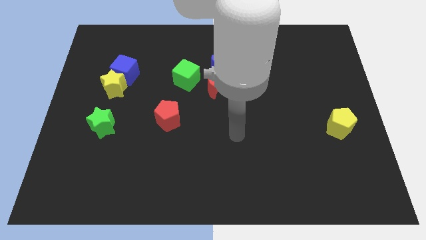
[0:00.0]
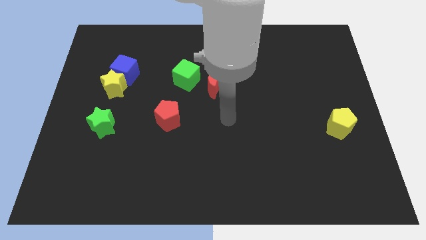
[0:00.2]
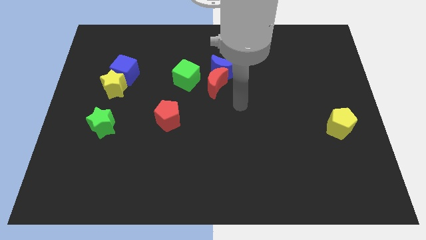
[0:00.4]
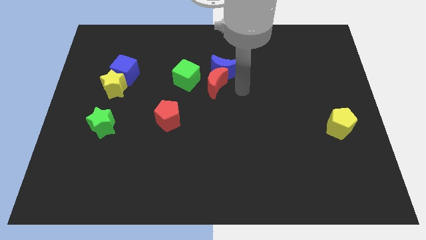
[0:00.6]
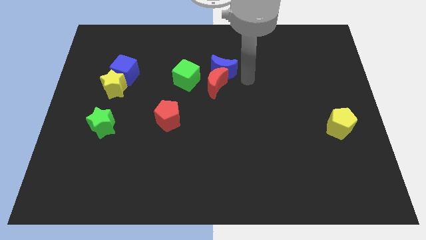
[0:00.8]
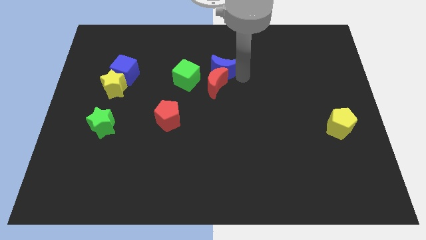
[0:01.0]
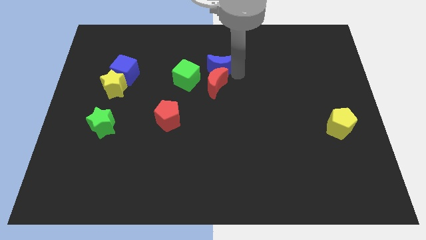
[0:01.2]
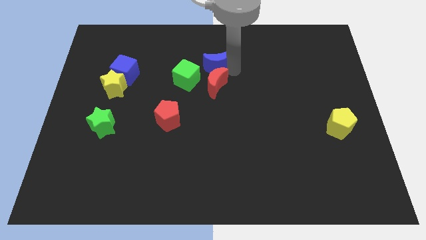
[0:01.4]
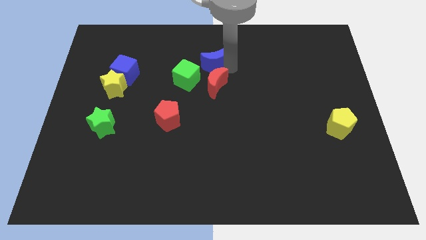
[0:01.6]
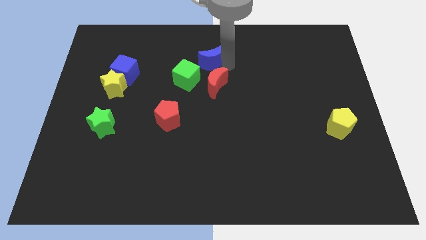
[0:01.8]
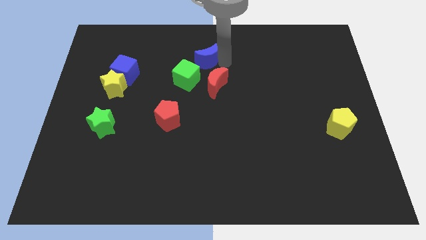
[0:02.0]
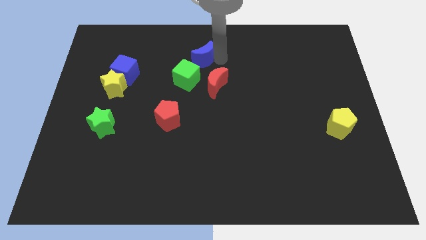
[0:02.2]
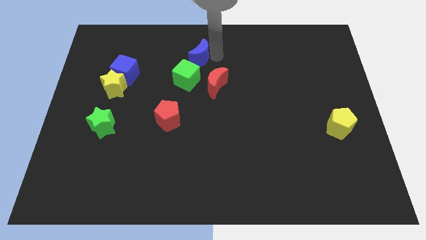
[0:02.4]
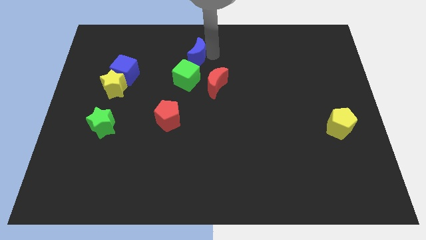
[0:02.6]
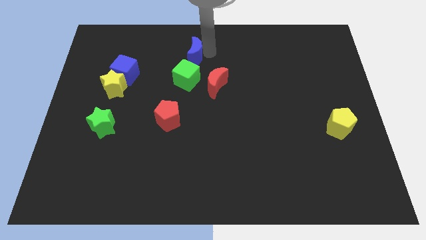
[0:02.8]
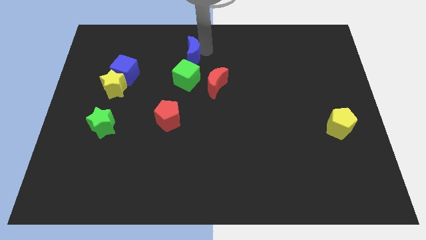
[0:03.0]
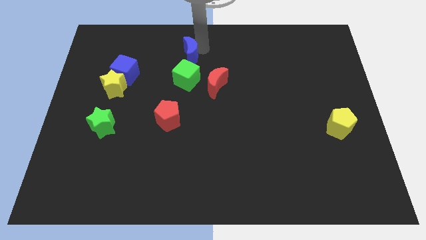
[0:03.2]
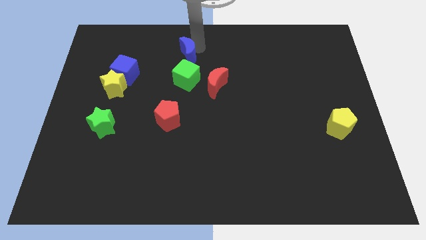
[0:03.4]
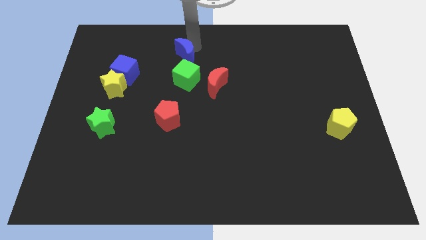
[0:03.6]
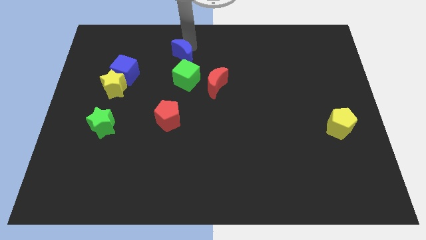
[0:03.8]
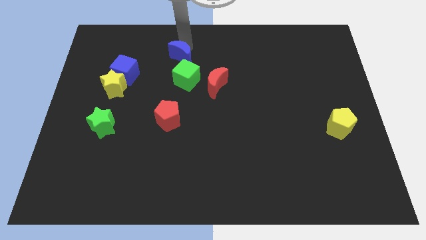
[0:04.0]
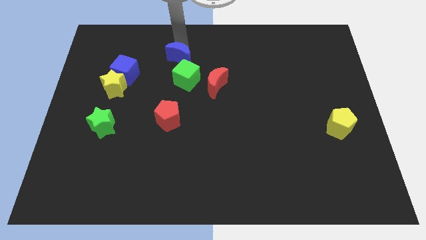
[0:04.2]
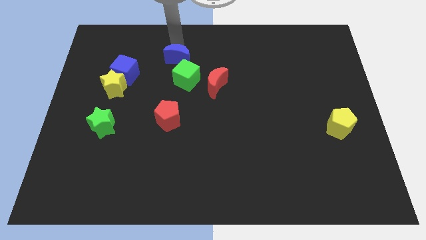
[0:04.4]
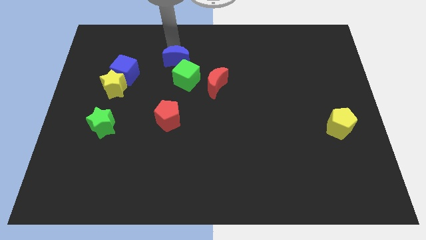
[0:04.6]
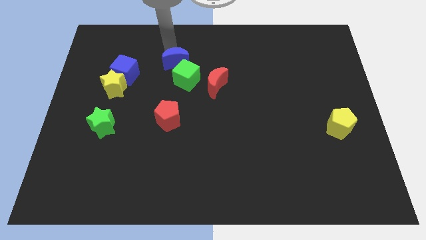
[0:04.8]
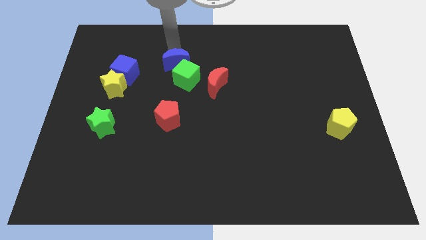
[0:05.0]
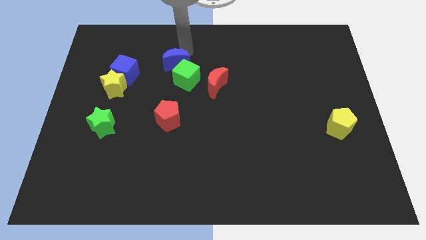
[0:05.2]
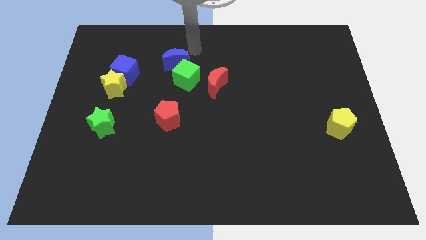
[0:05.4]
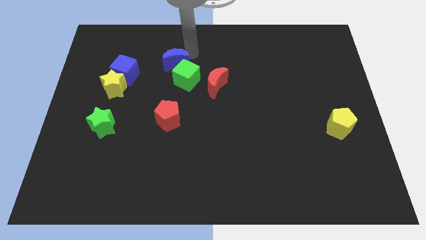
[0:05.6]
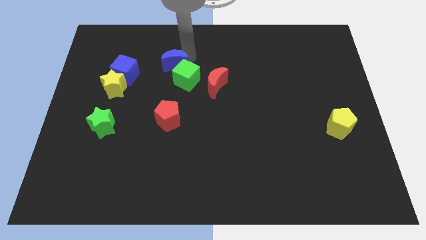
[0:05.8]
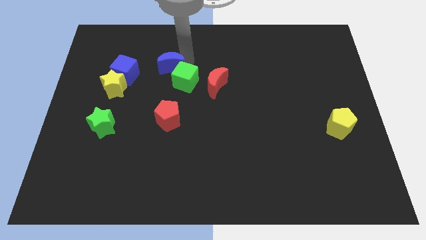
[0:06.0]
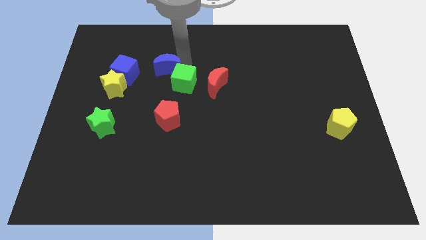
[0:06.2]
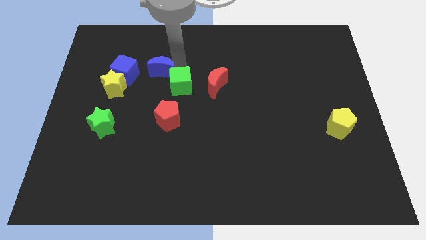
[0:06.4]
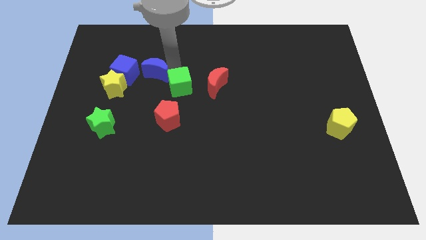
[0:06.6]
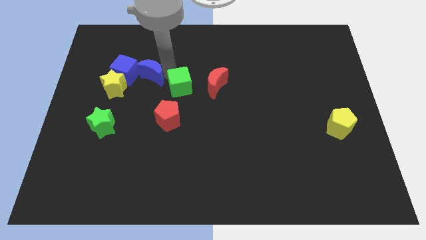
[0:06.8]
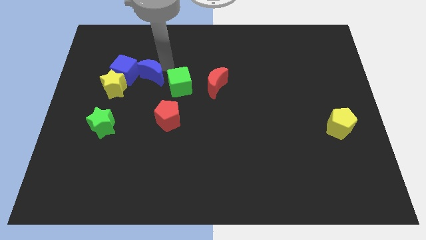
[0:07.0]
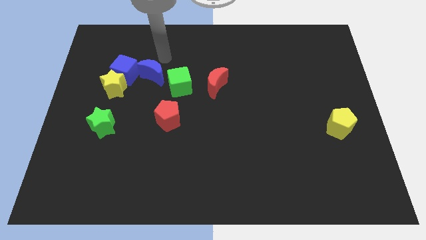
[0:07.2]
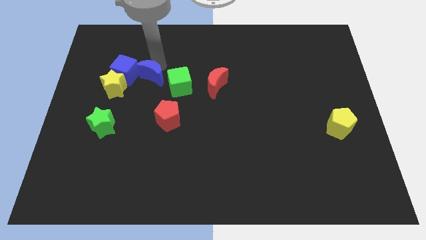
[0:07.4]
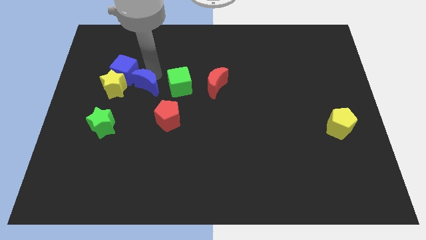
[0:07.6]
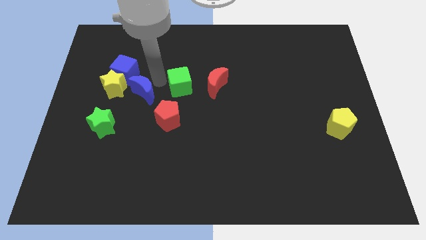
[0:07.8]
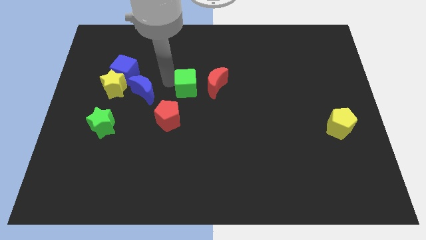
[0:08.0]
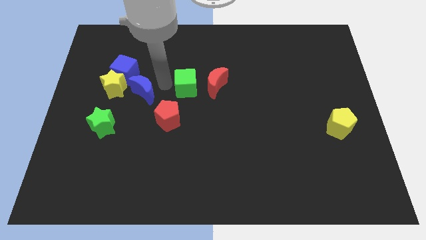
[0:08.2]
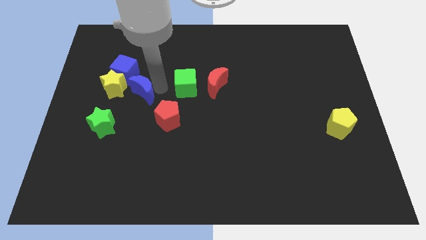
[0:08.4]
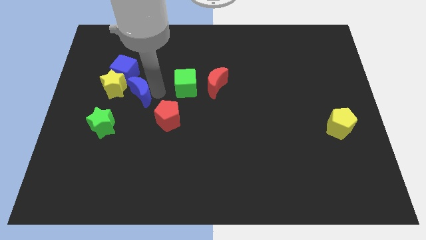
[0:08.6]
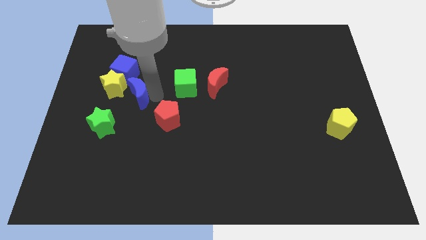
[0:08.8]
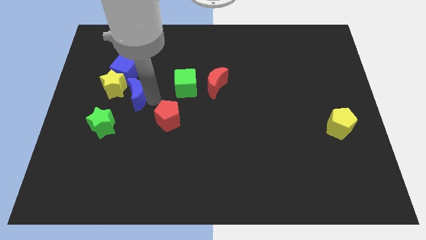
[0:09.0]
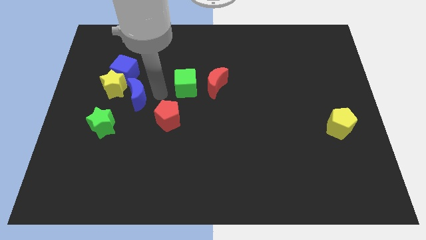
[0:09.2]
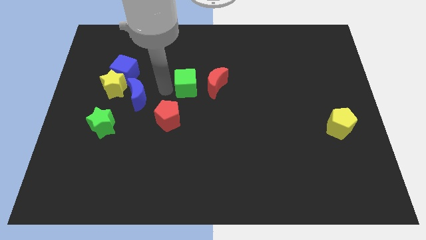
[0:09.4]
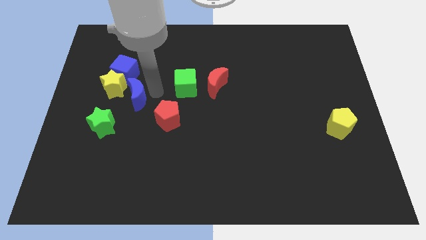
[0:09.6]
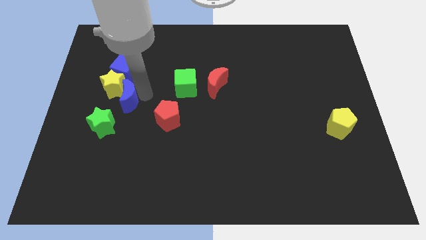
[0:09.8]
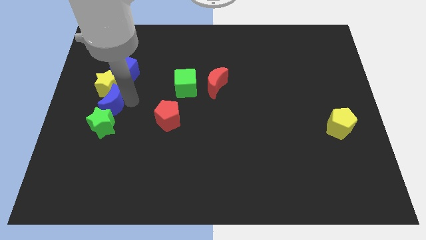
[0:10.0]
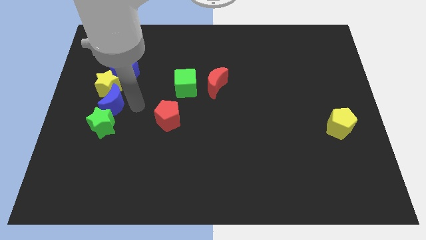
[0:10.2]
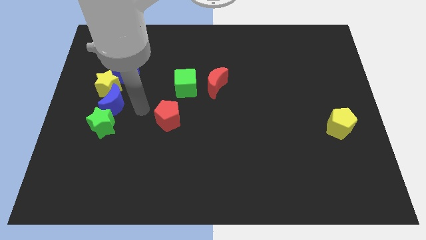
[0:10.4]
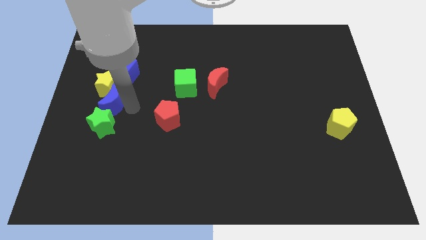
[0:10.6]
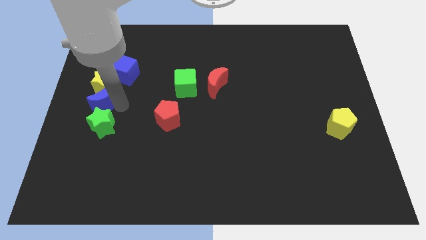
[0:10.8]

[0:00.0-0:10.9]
put the blue moon to the left side of the board

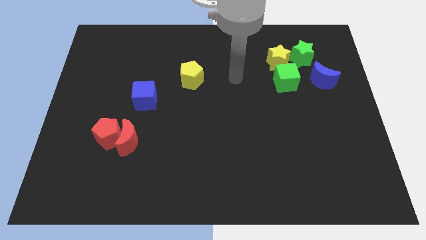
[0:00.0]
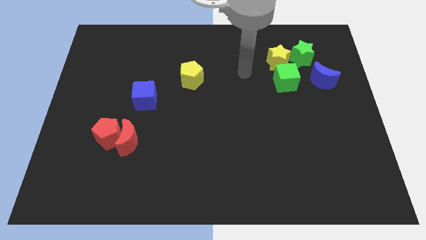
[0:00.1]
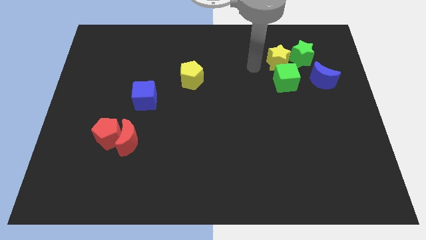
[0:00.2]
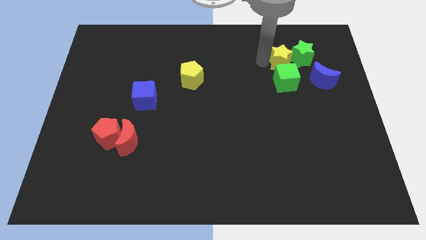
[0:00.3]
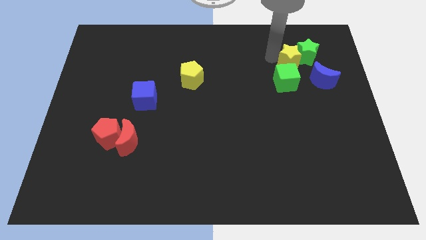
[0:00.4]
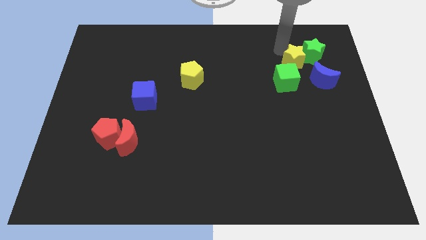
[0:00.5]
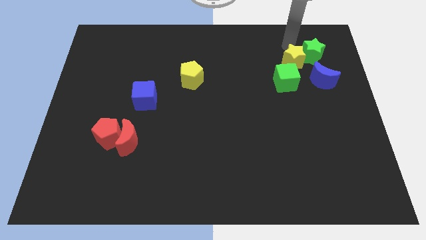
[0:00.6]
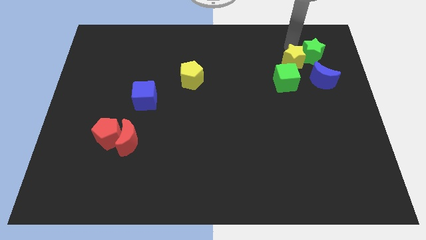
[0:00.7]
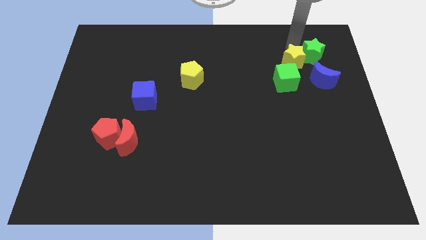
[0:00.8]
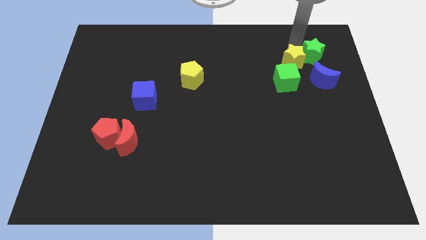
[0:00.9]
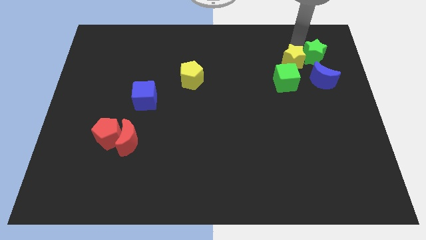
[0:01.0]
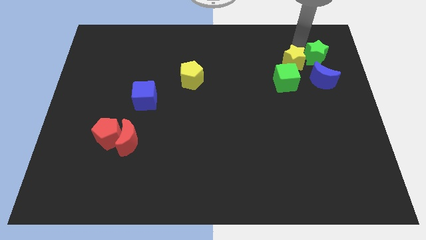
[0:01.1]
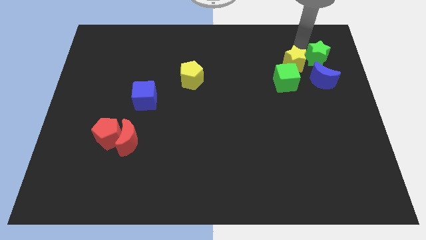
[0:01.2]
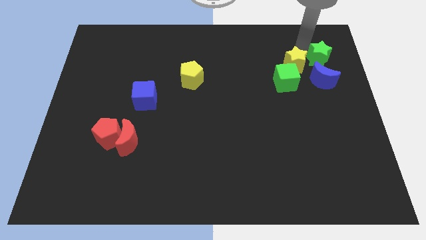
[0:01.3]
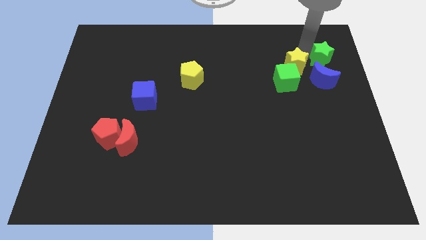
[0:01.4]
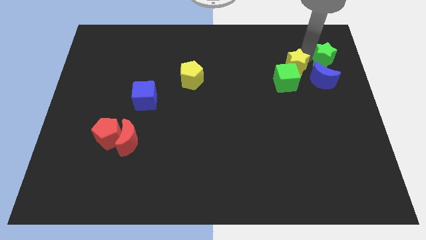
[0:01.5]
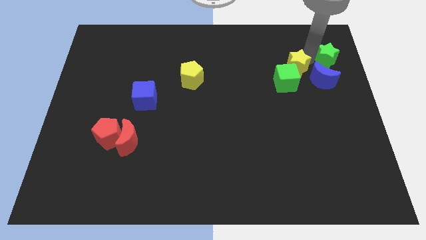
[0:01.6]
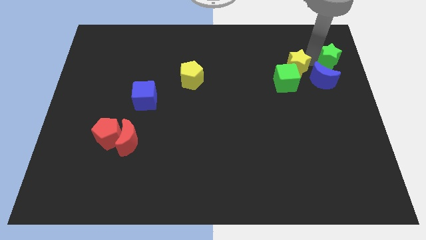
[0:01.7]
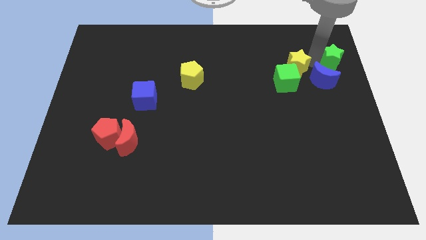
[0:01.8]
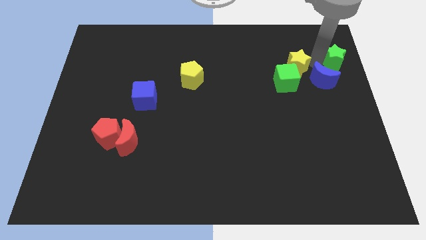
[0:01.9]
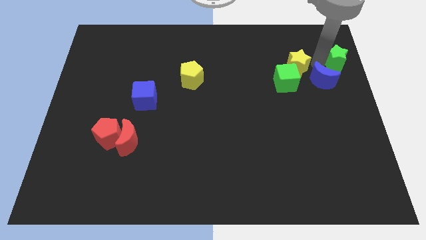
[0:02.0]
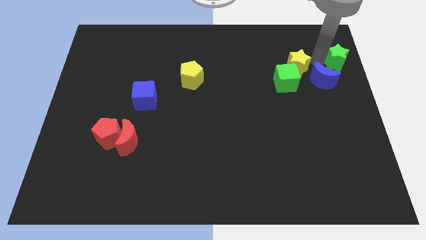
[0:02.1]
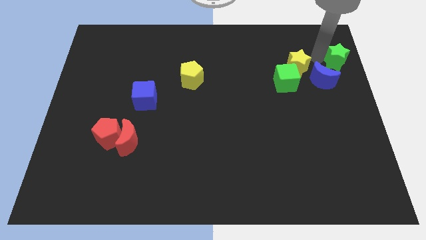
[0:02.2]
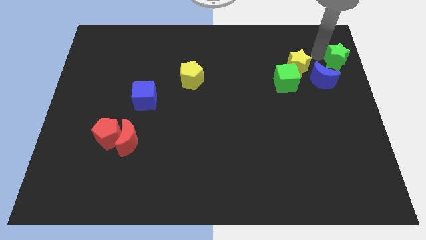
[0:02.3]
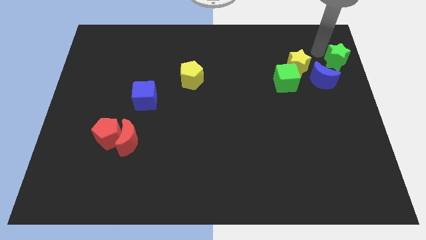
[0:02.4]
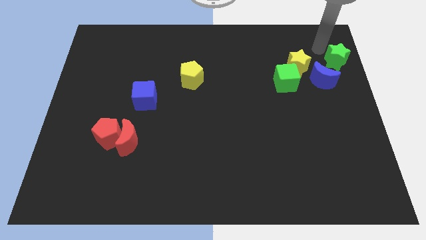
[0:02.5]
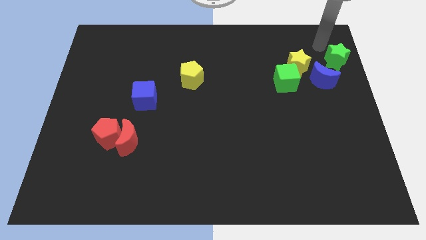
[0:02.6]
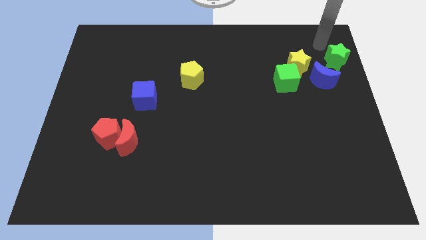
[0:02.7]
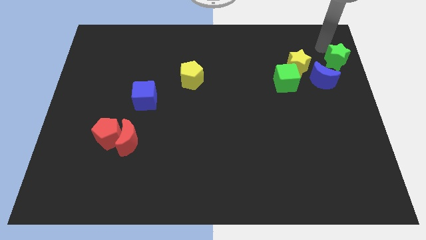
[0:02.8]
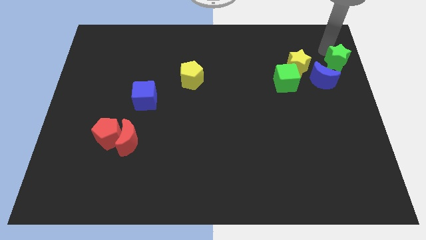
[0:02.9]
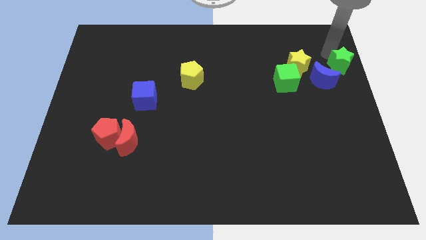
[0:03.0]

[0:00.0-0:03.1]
slide the green star to the center right
